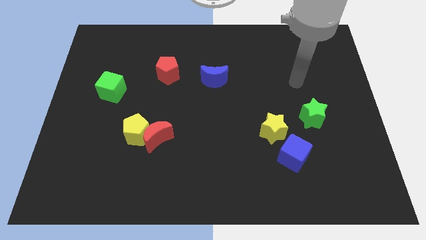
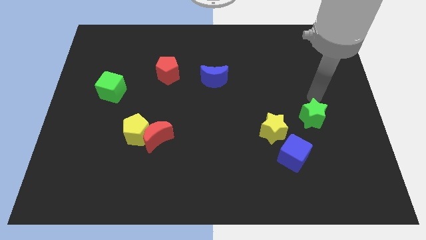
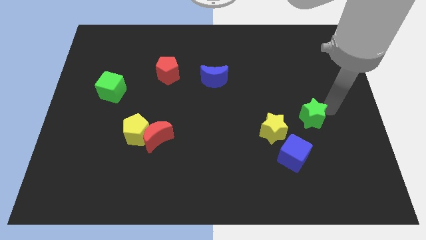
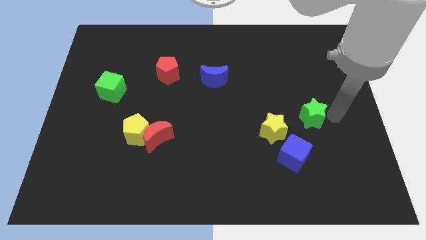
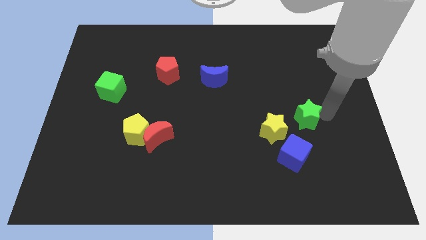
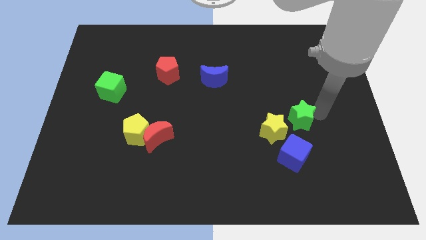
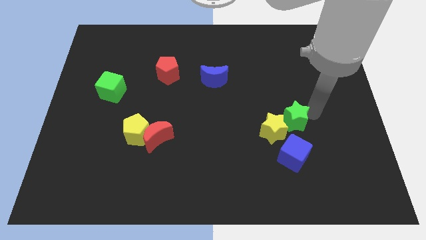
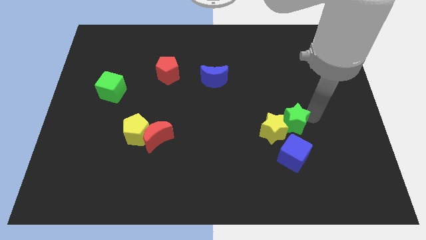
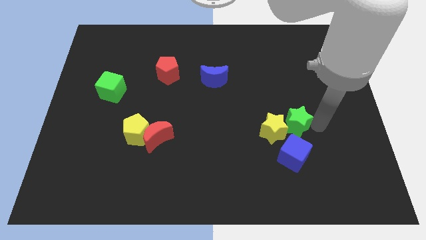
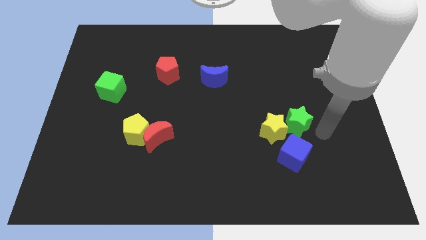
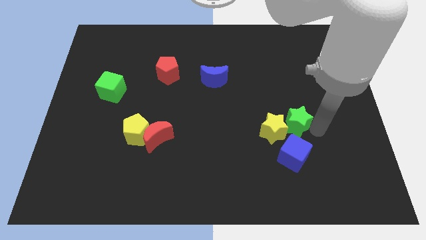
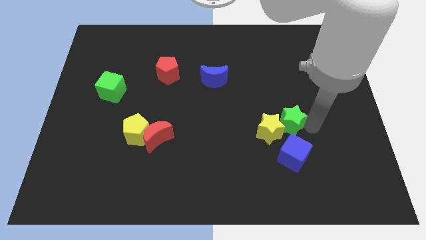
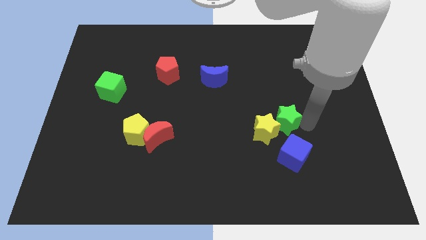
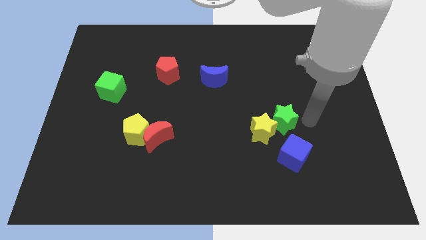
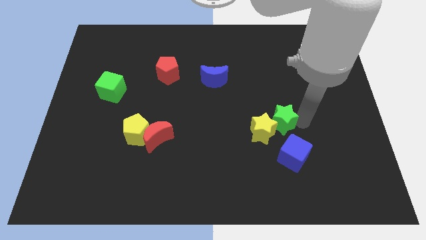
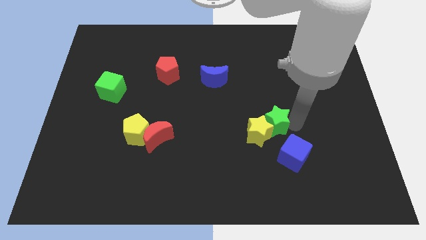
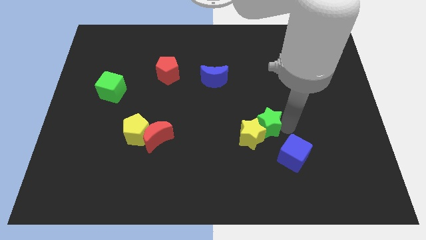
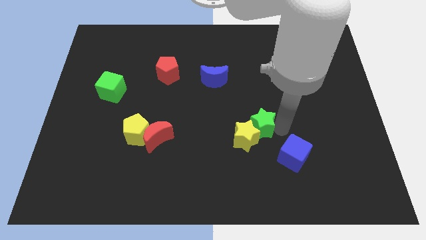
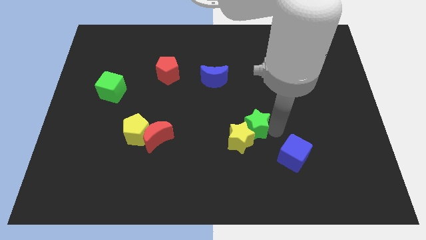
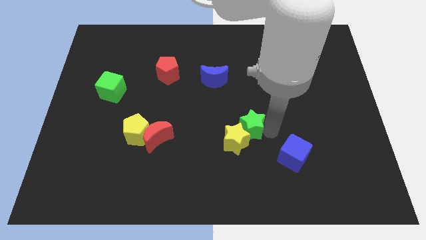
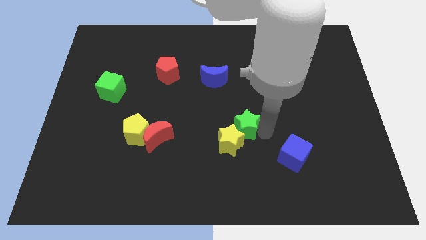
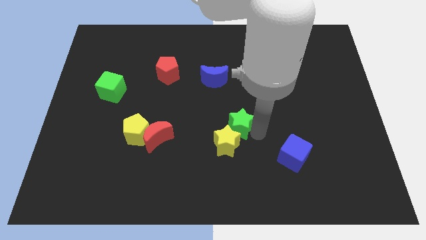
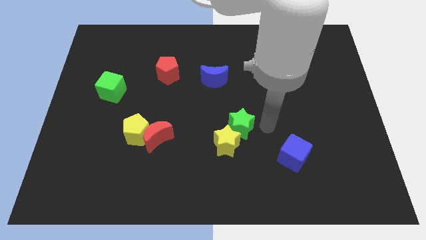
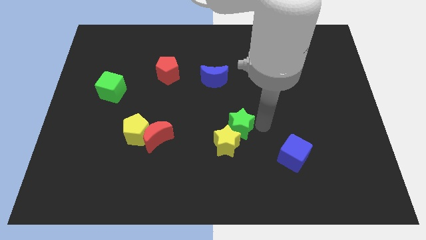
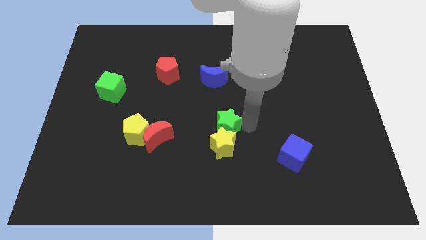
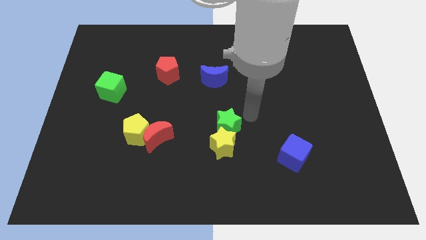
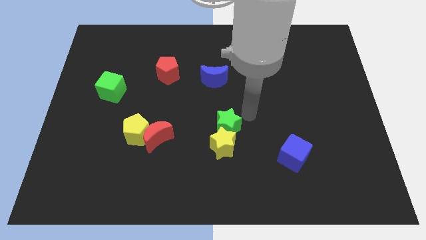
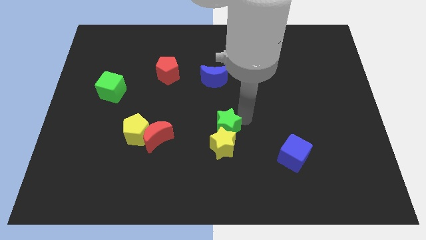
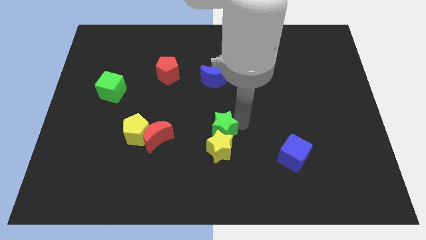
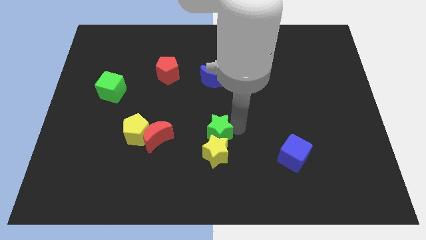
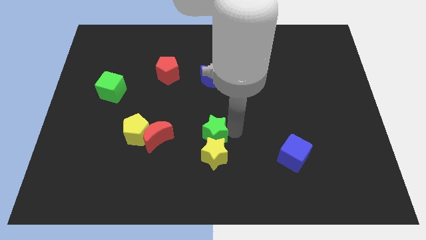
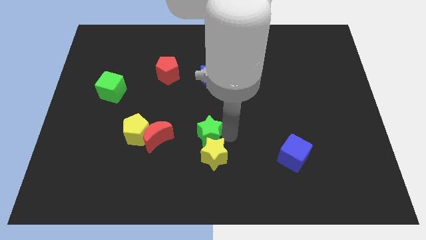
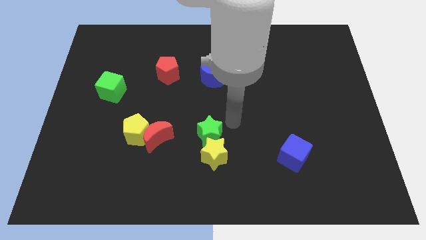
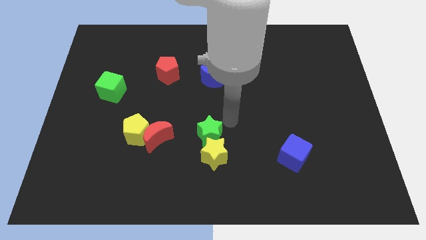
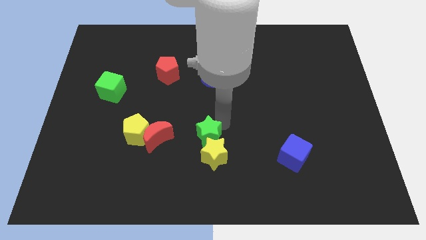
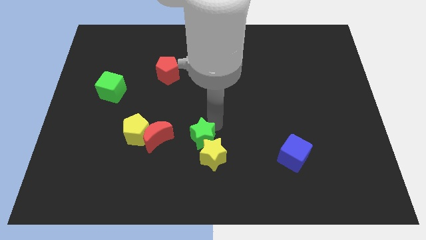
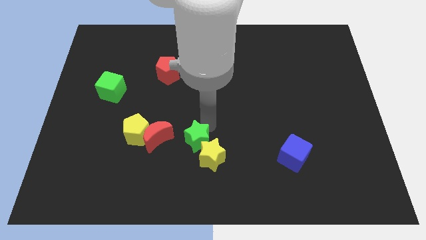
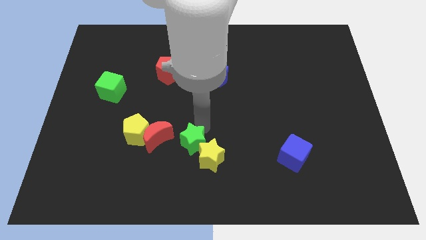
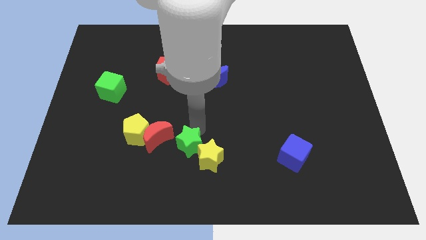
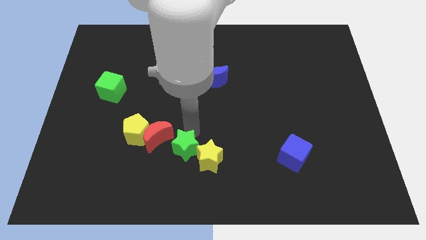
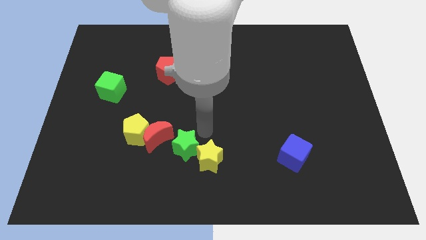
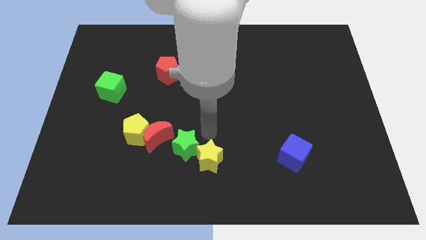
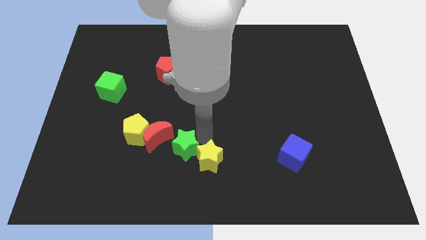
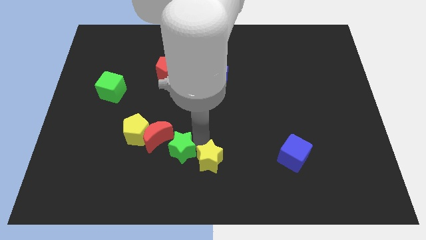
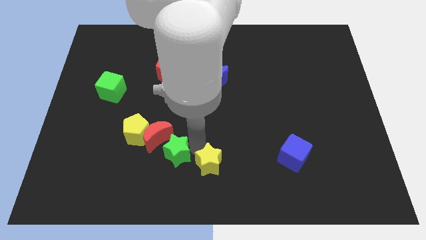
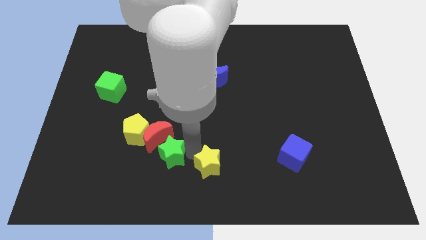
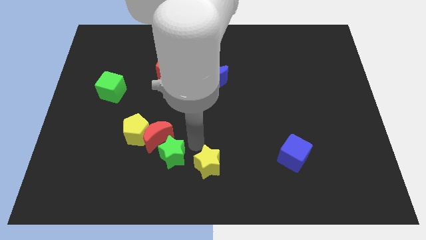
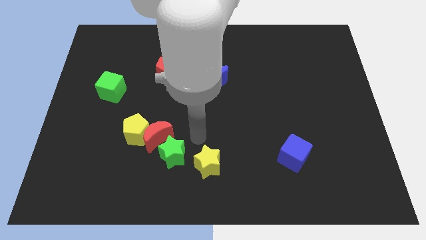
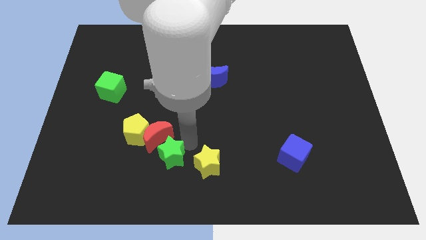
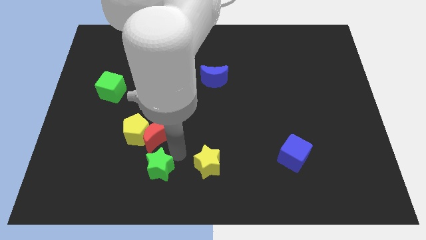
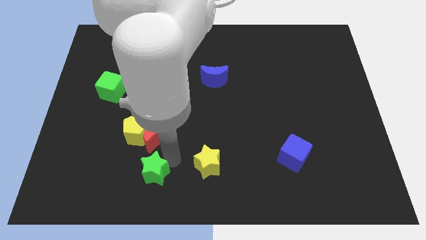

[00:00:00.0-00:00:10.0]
put the green star to the bottom of the yellow pentagon

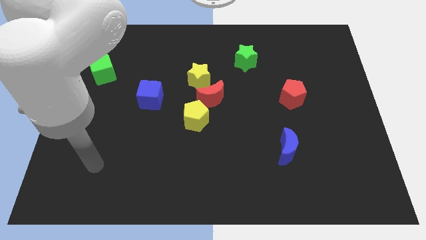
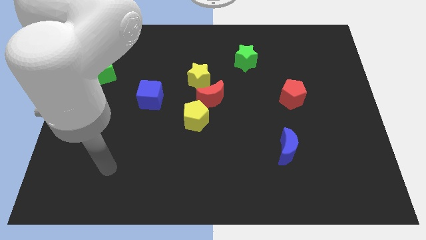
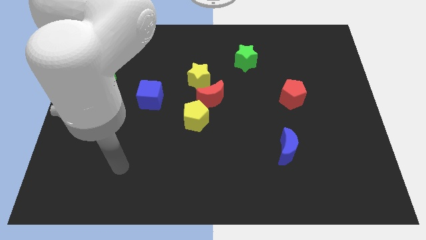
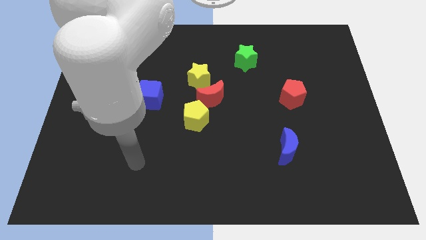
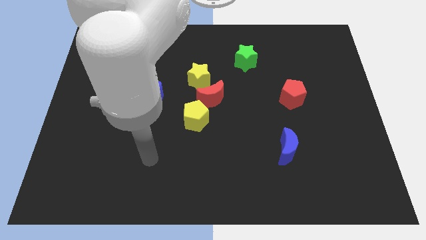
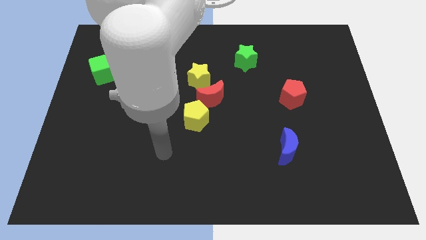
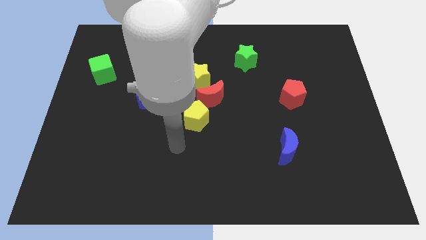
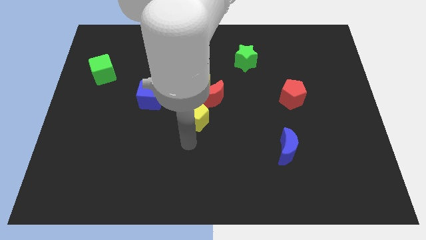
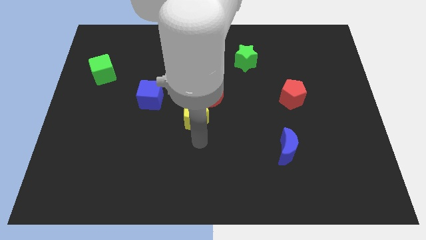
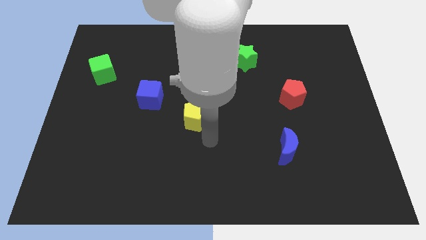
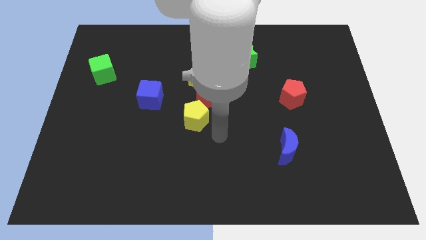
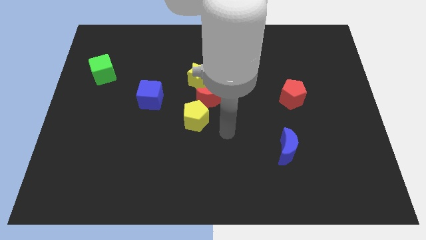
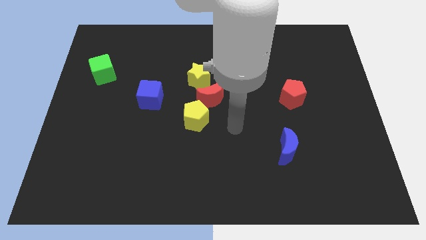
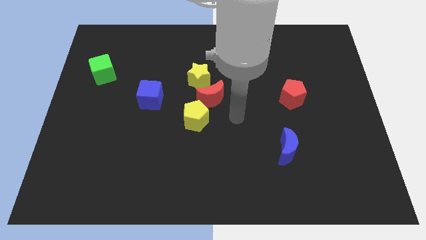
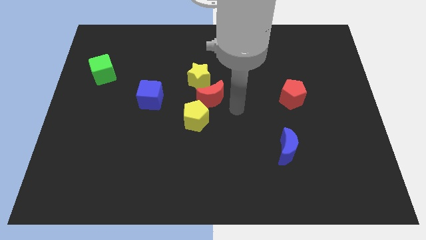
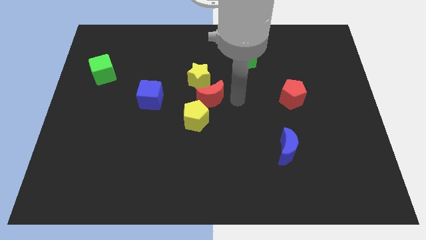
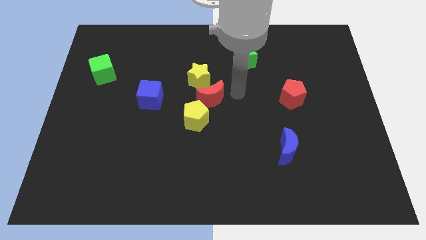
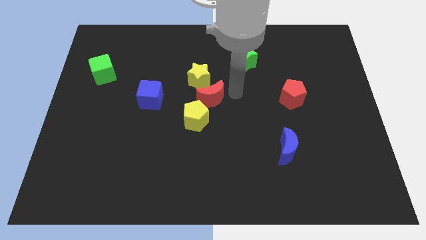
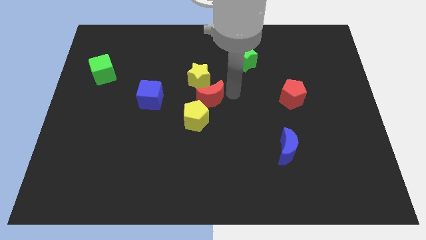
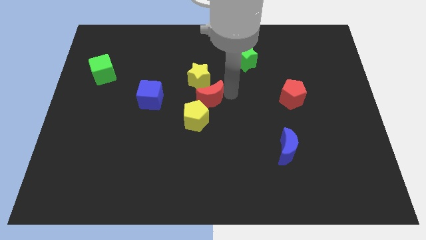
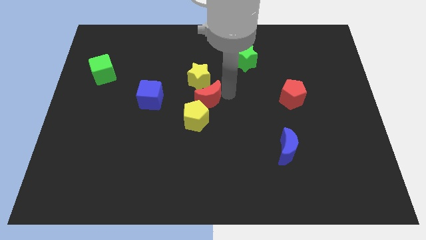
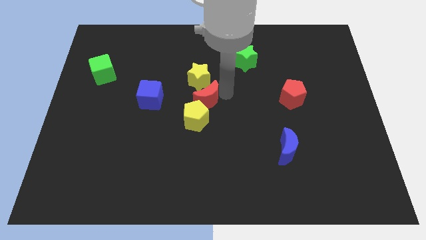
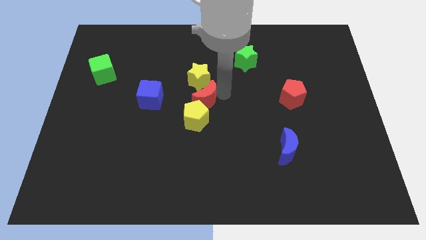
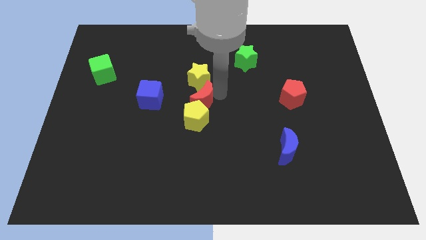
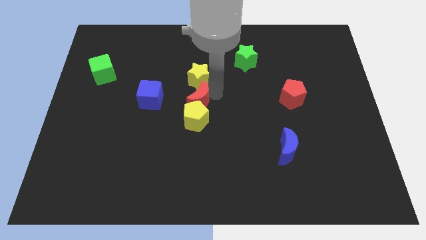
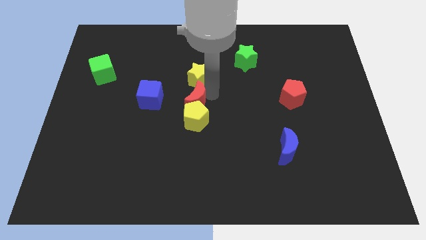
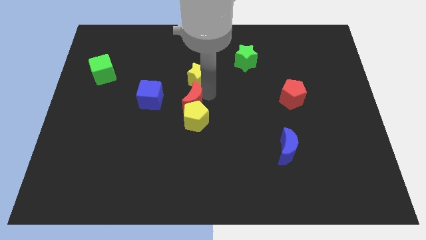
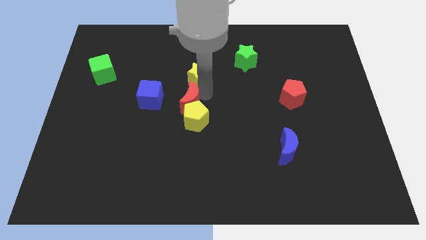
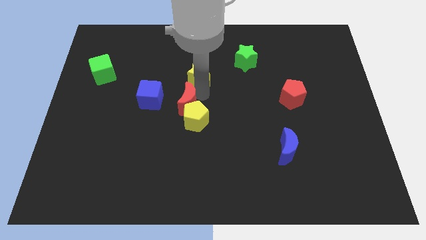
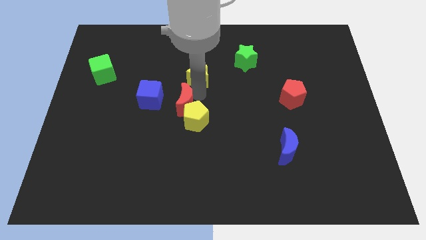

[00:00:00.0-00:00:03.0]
put the red moon to the bottom right of the blue cube

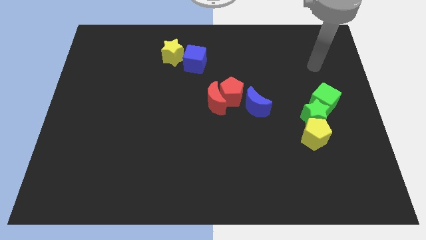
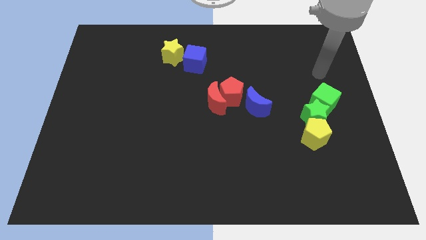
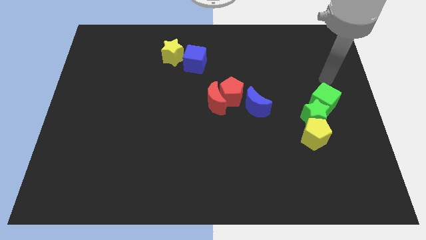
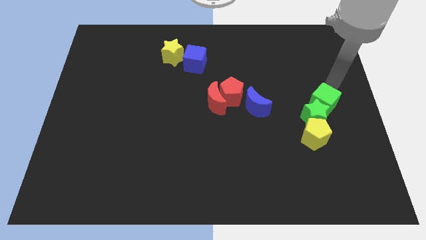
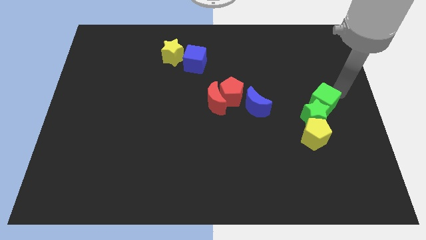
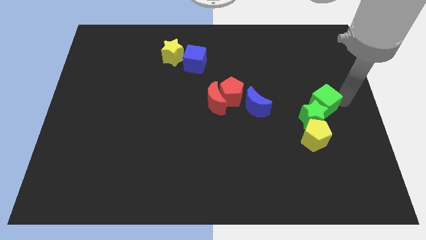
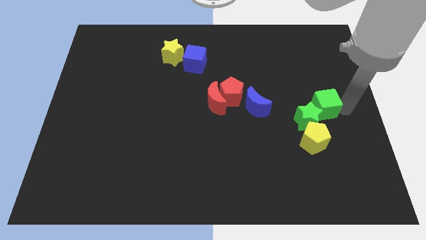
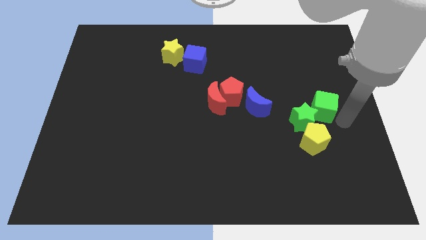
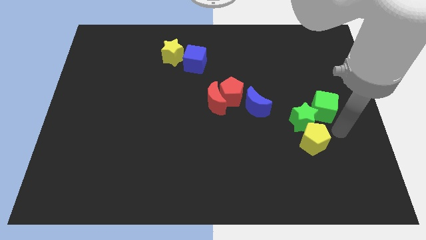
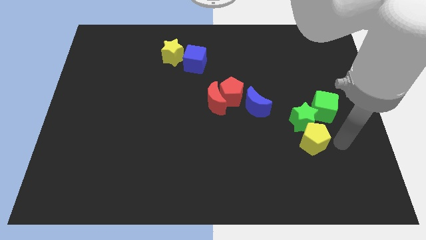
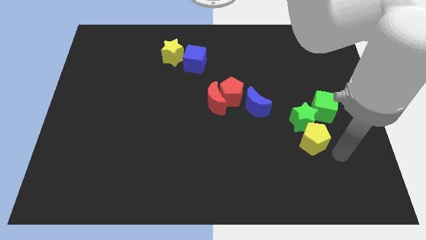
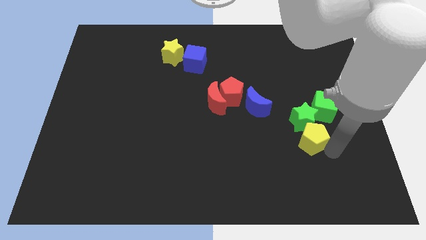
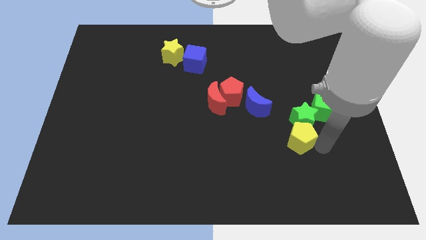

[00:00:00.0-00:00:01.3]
slide the yellow pentagon to the bottom right side of the blue moon
